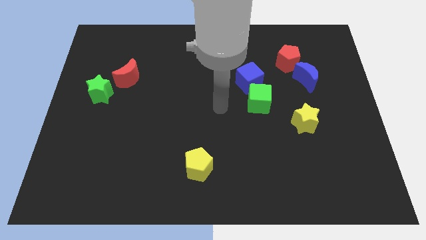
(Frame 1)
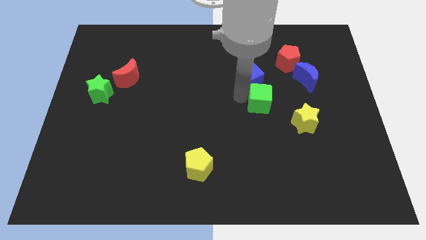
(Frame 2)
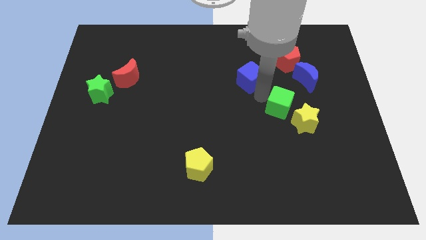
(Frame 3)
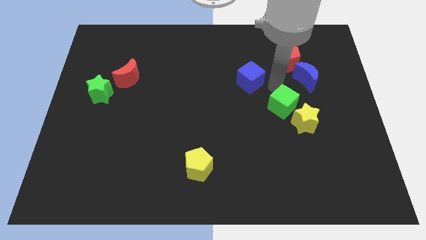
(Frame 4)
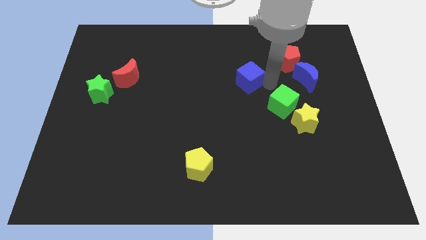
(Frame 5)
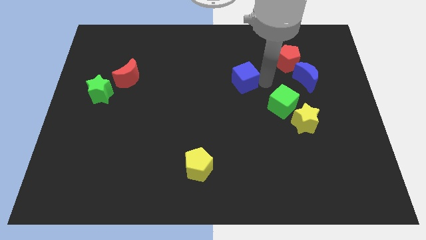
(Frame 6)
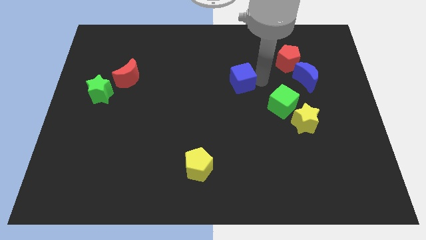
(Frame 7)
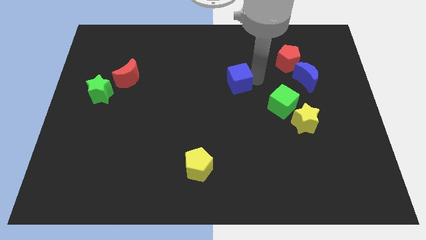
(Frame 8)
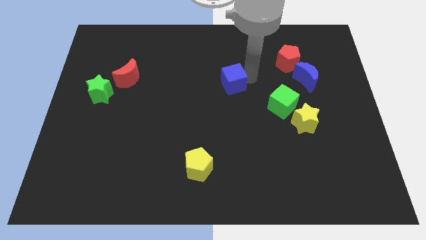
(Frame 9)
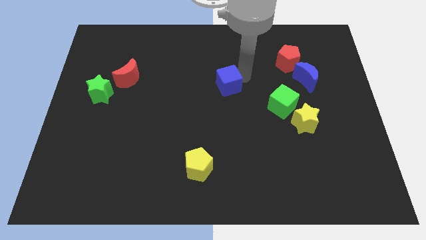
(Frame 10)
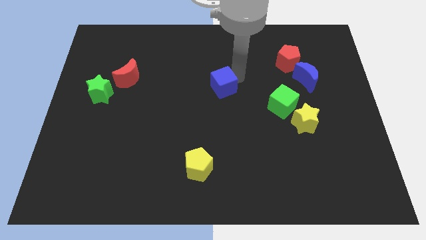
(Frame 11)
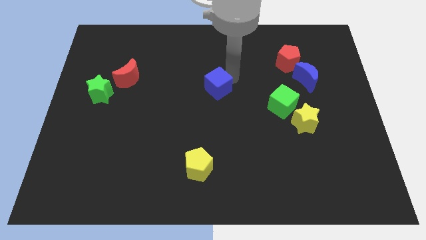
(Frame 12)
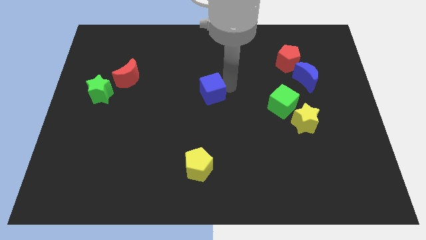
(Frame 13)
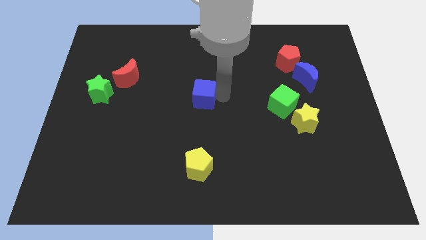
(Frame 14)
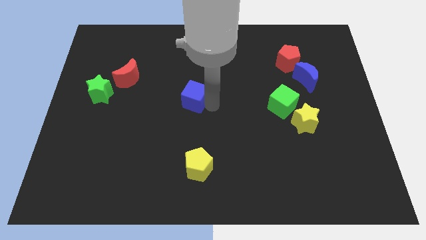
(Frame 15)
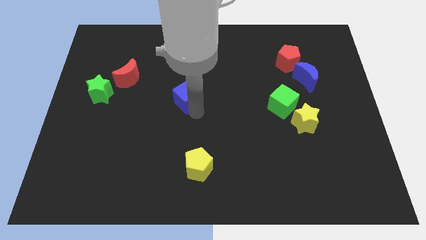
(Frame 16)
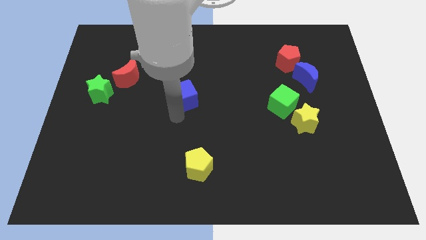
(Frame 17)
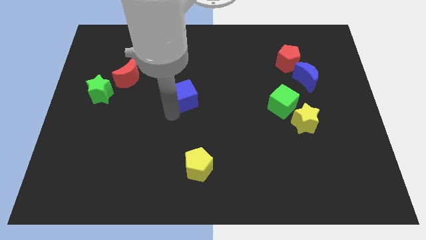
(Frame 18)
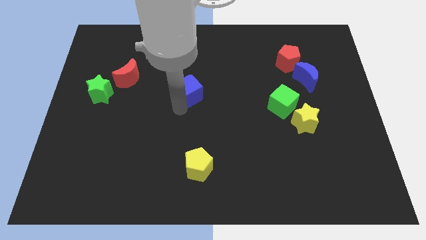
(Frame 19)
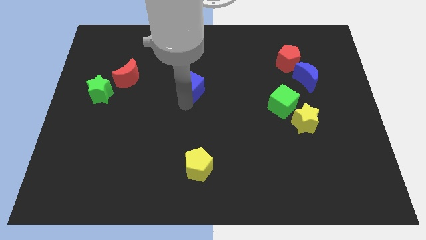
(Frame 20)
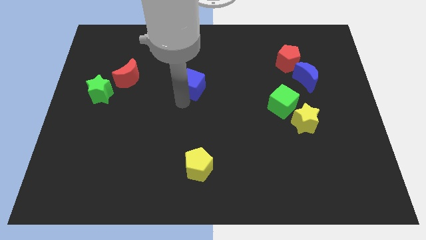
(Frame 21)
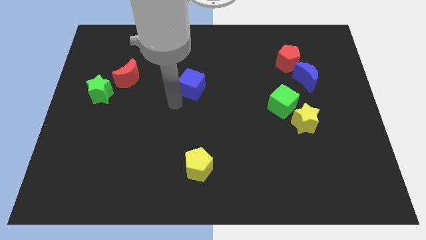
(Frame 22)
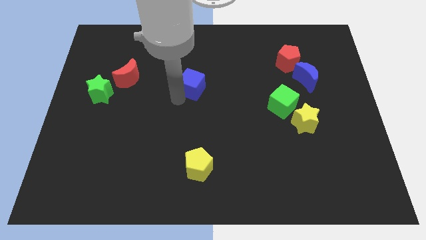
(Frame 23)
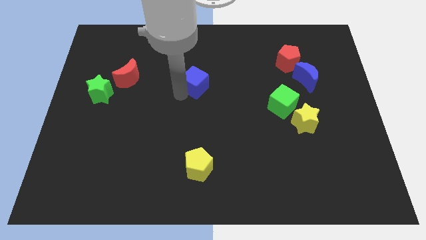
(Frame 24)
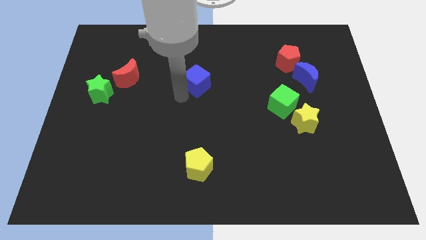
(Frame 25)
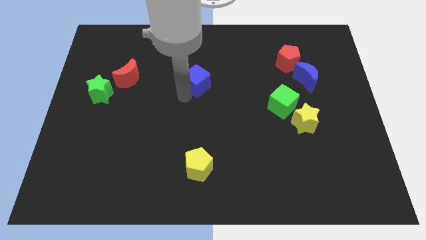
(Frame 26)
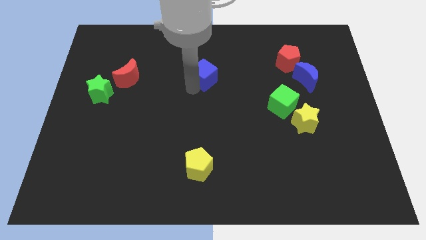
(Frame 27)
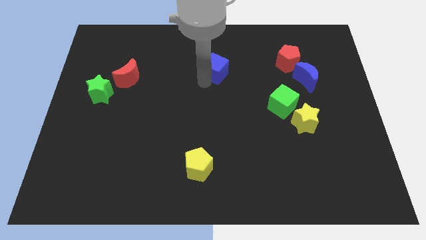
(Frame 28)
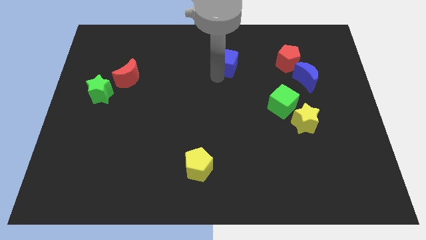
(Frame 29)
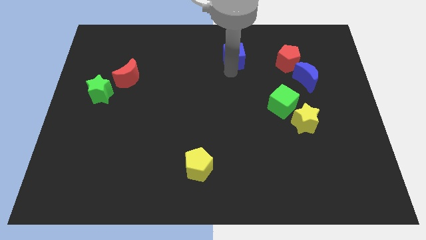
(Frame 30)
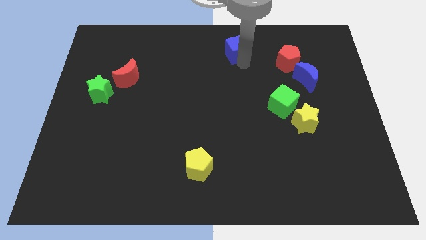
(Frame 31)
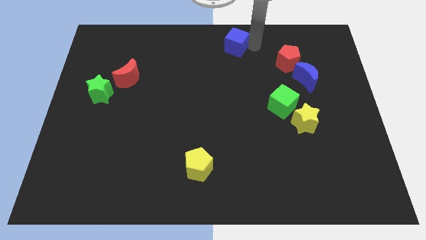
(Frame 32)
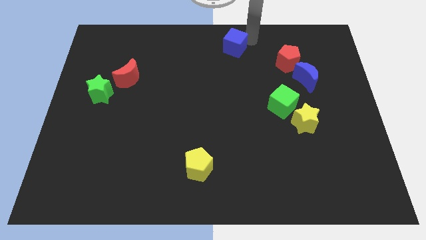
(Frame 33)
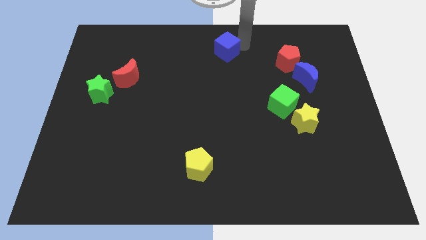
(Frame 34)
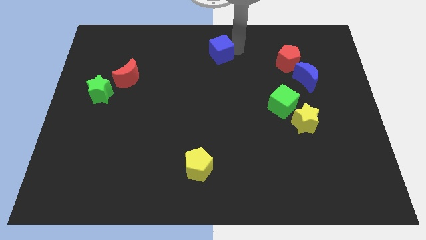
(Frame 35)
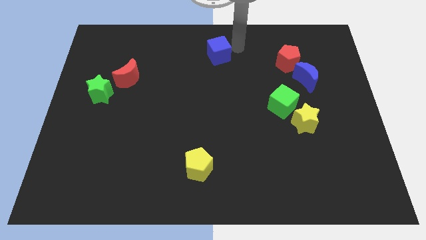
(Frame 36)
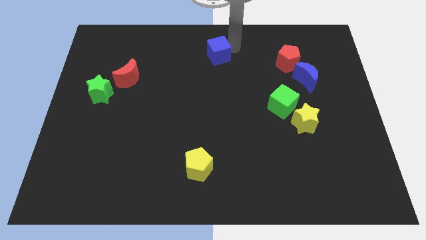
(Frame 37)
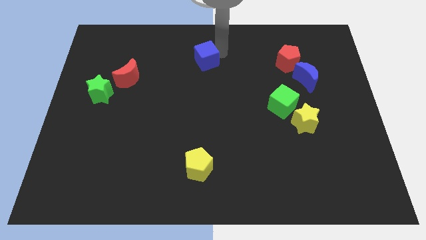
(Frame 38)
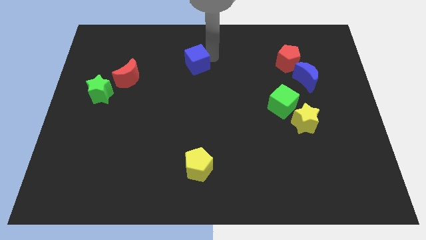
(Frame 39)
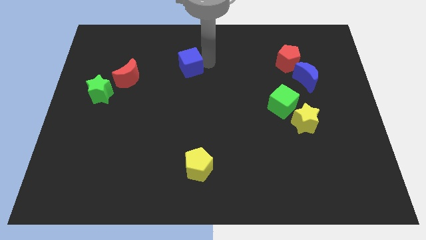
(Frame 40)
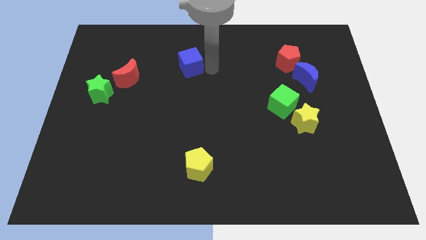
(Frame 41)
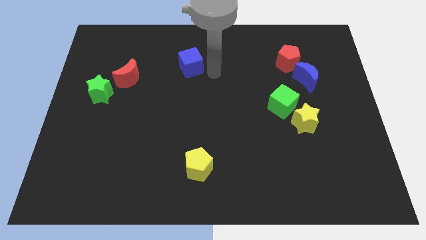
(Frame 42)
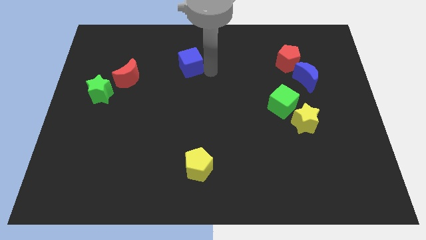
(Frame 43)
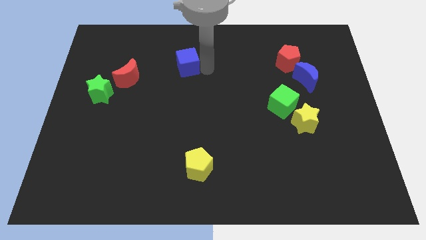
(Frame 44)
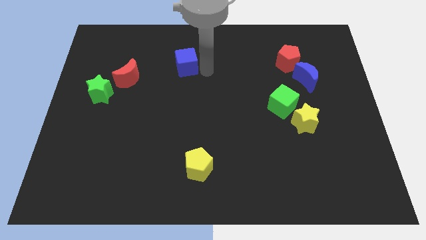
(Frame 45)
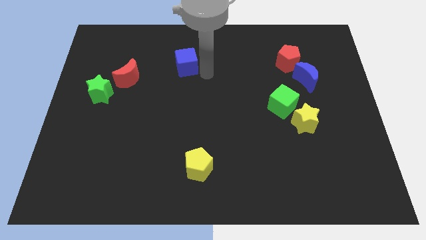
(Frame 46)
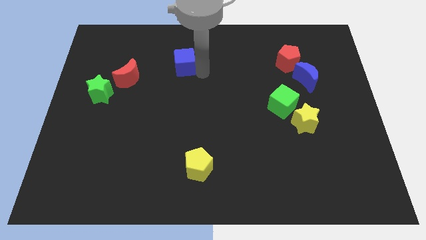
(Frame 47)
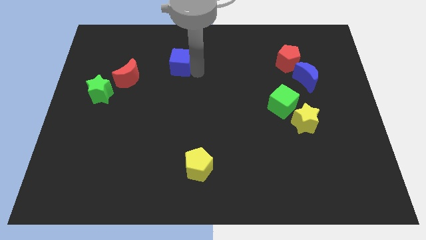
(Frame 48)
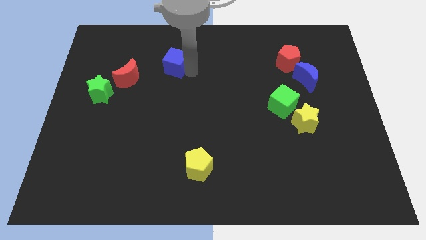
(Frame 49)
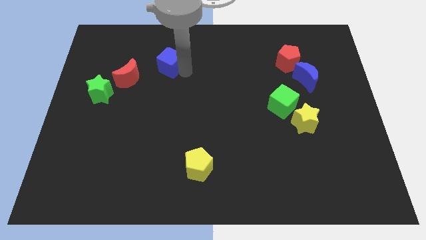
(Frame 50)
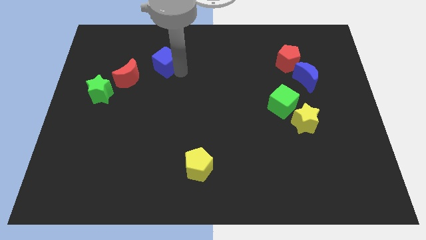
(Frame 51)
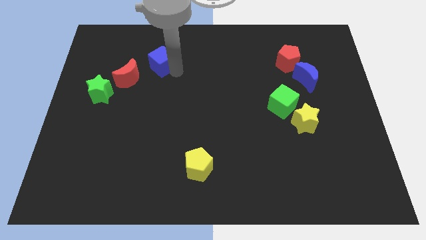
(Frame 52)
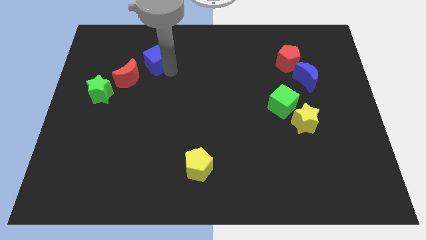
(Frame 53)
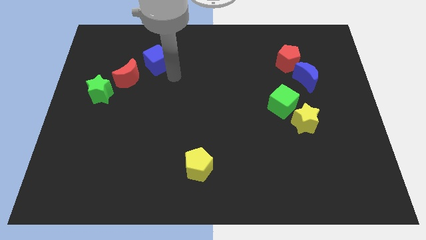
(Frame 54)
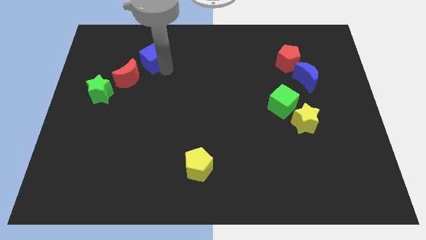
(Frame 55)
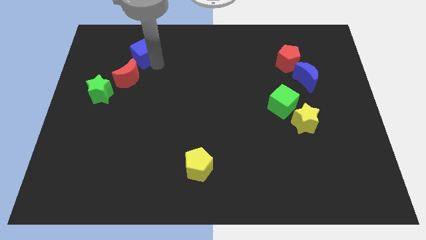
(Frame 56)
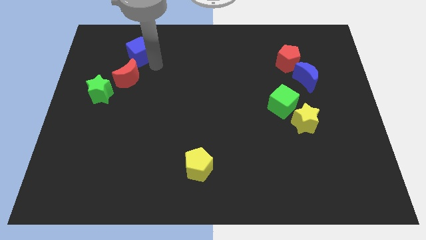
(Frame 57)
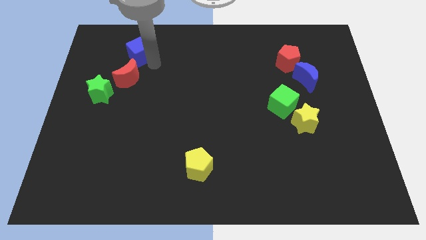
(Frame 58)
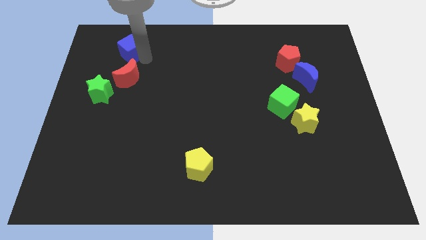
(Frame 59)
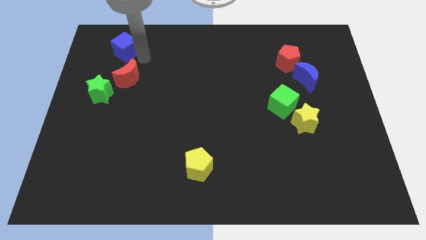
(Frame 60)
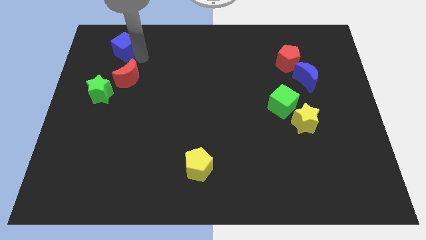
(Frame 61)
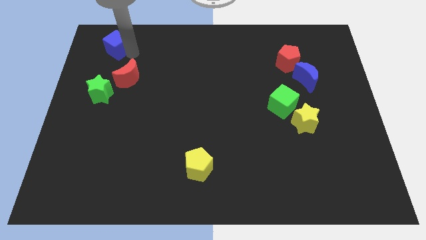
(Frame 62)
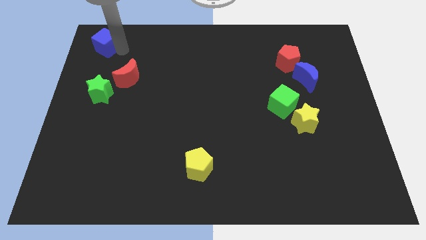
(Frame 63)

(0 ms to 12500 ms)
slide the blue cube to the top left

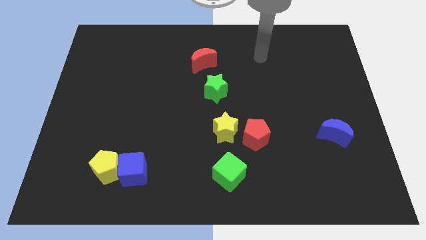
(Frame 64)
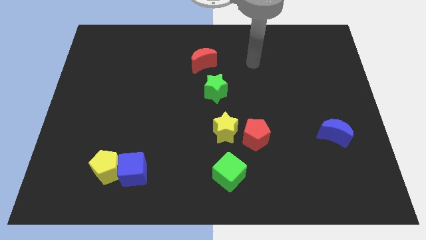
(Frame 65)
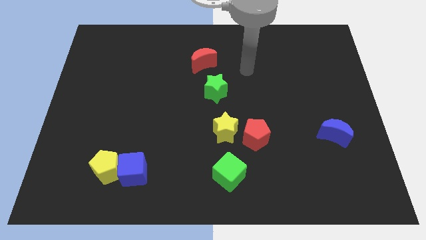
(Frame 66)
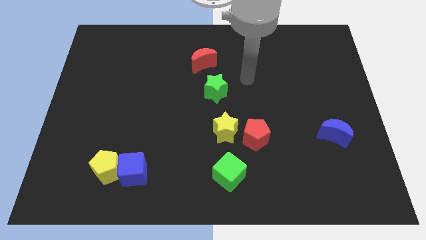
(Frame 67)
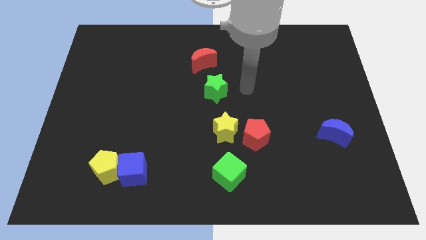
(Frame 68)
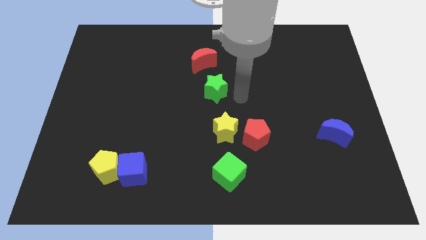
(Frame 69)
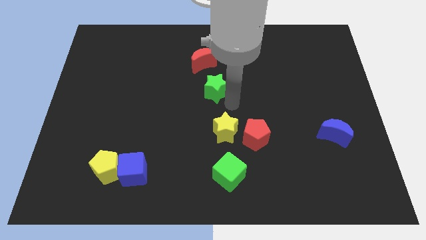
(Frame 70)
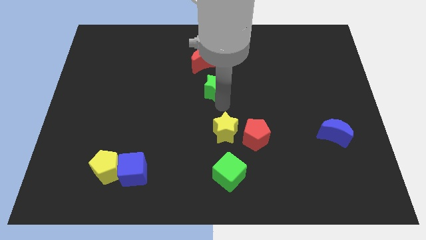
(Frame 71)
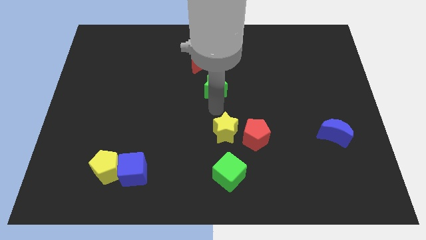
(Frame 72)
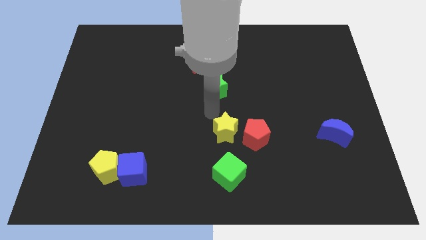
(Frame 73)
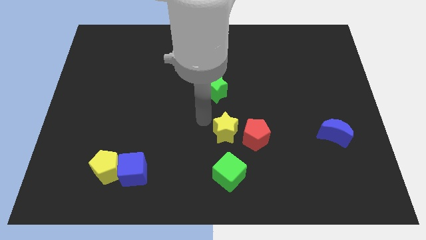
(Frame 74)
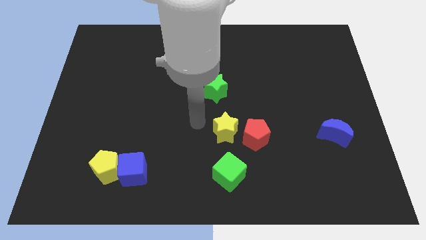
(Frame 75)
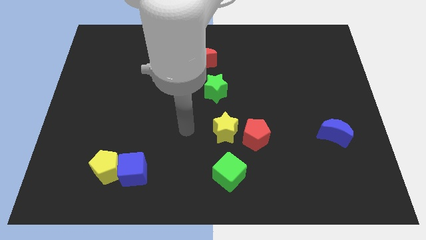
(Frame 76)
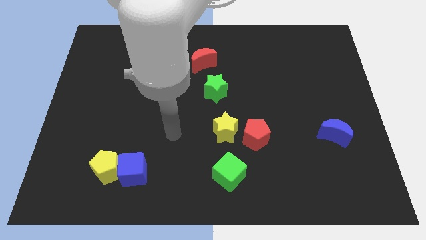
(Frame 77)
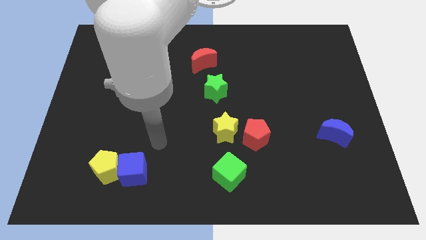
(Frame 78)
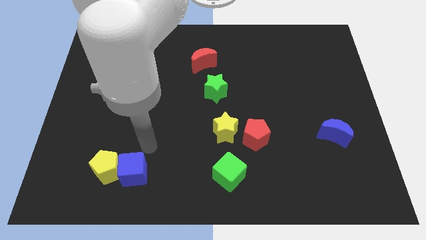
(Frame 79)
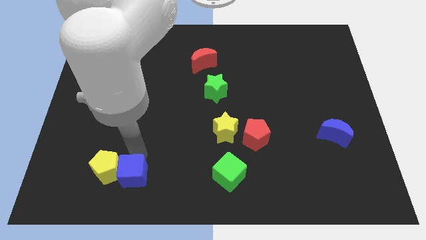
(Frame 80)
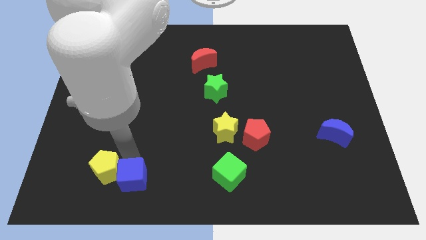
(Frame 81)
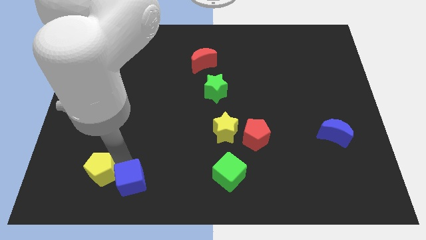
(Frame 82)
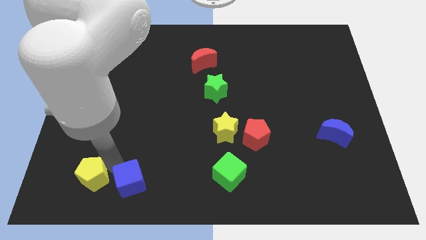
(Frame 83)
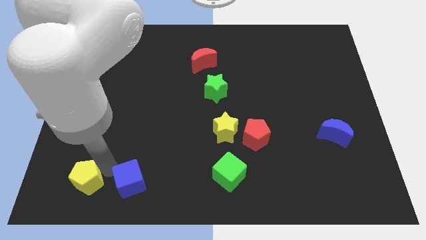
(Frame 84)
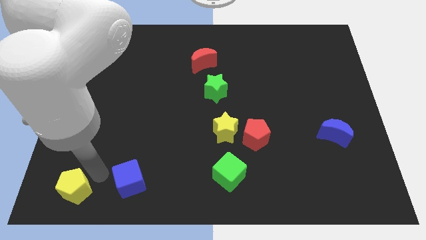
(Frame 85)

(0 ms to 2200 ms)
put the yellow pentagon to the bottom left corner
